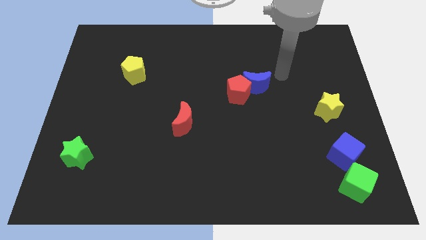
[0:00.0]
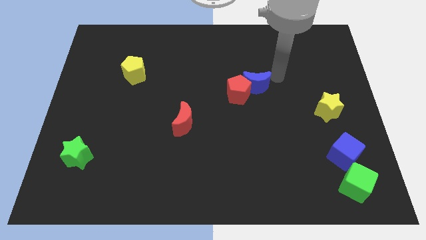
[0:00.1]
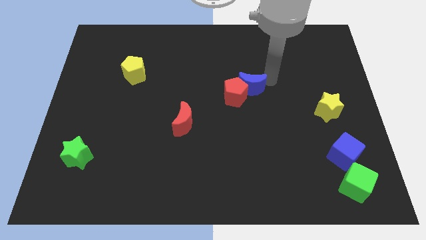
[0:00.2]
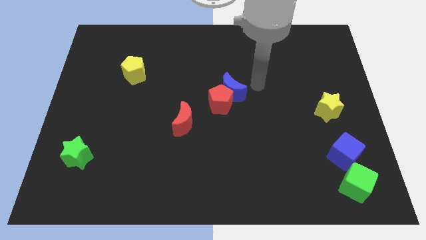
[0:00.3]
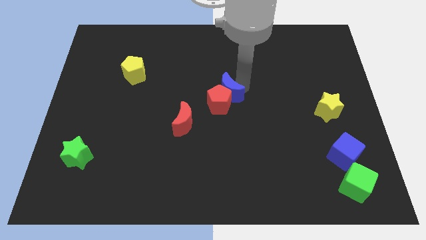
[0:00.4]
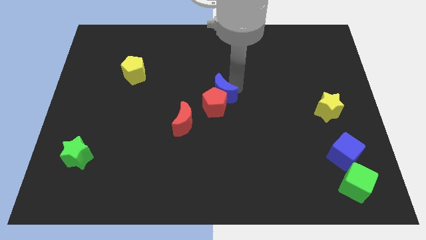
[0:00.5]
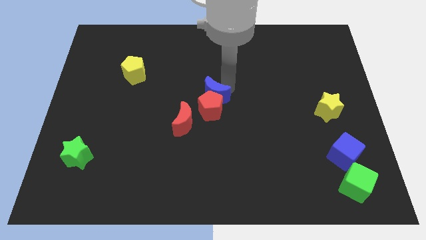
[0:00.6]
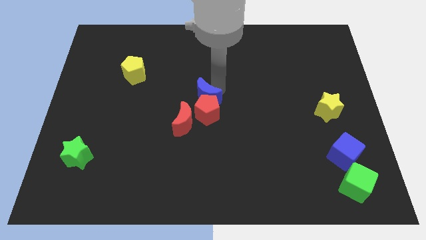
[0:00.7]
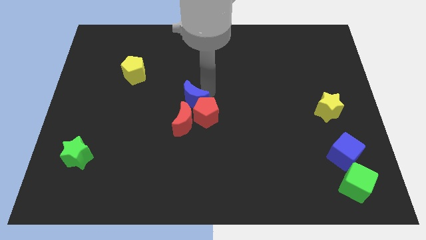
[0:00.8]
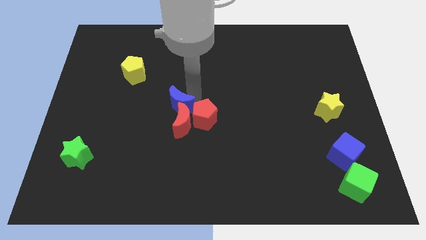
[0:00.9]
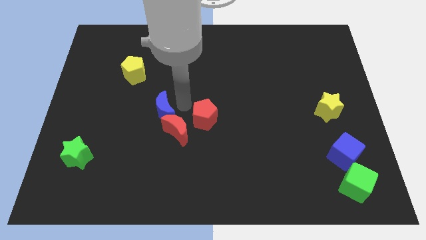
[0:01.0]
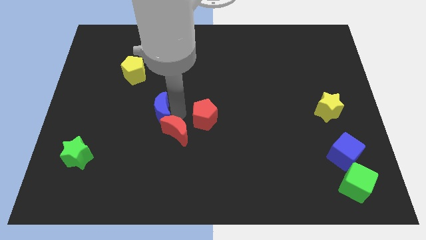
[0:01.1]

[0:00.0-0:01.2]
move the red pentagon away from the blue moon

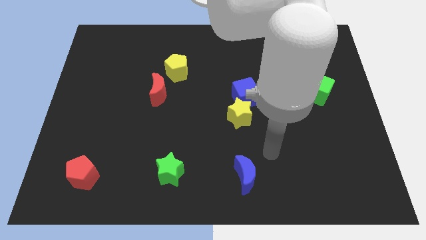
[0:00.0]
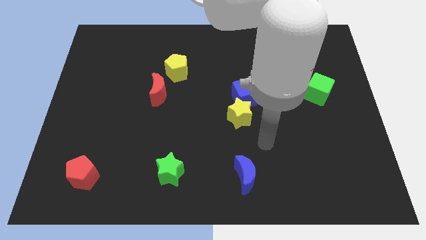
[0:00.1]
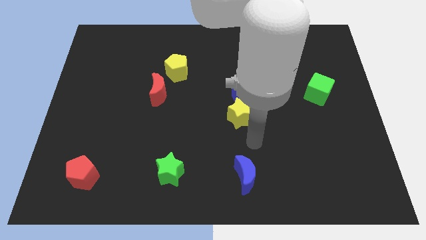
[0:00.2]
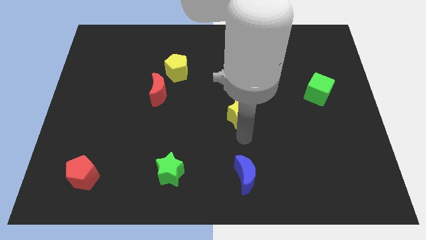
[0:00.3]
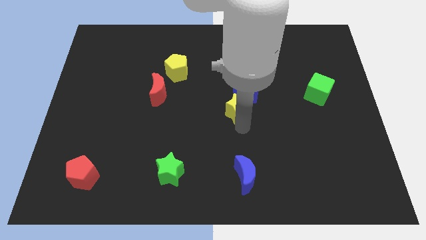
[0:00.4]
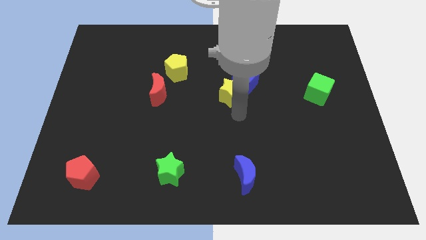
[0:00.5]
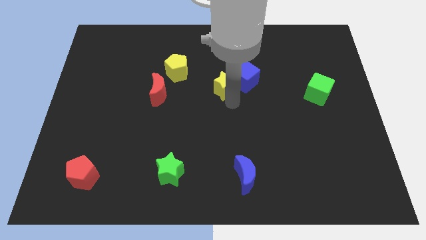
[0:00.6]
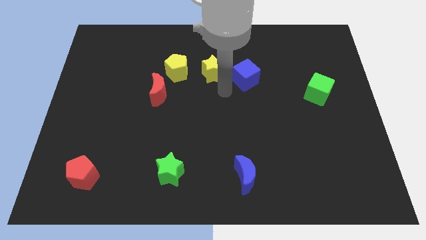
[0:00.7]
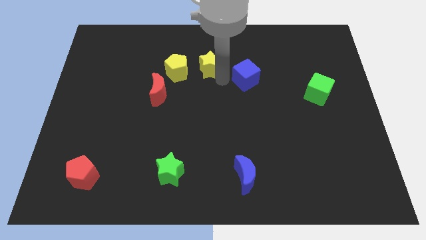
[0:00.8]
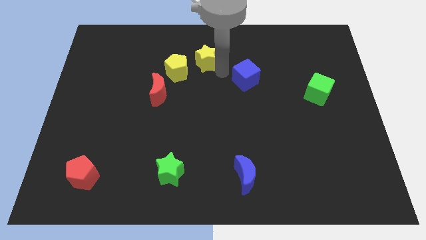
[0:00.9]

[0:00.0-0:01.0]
separate the blue cube from the yellow star

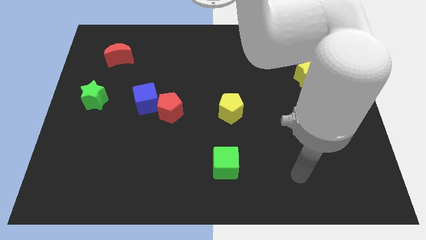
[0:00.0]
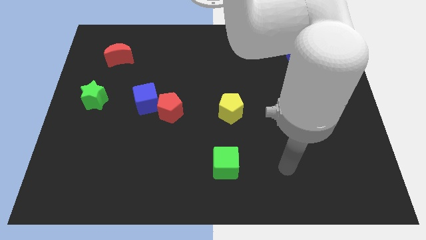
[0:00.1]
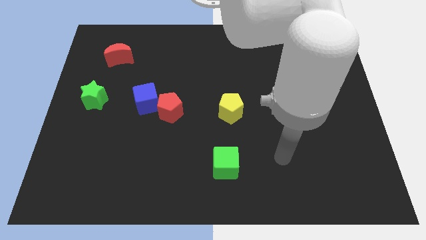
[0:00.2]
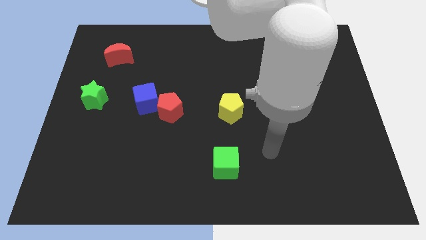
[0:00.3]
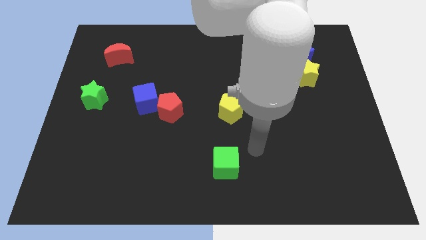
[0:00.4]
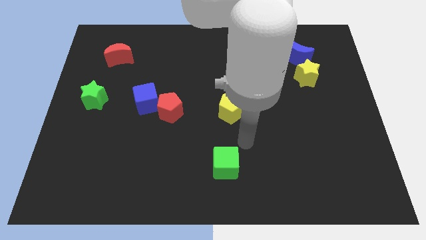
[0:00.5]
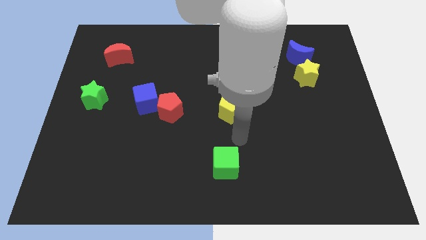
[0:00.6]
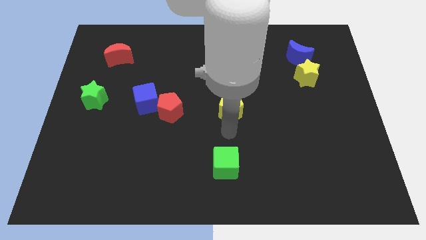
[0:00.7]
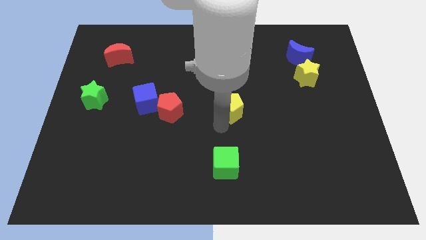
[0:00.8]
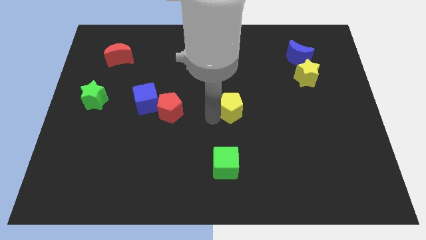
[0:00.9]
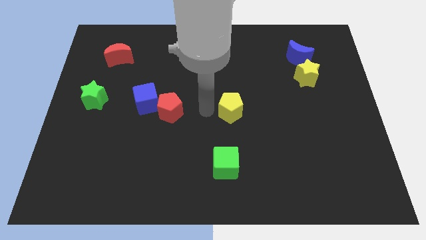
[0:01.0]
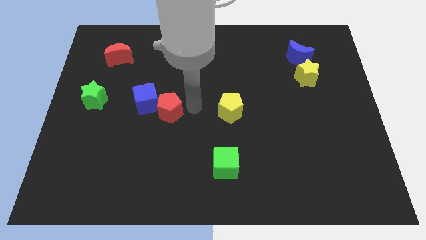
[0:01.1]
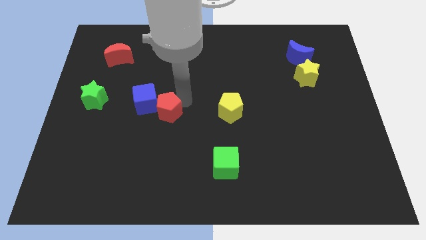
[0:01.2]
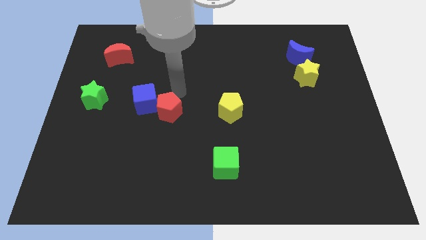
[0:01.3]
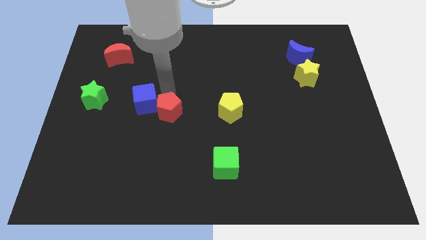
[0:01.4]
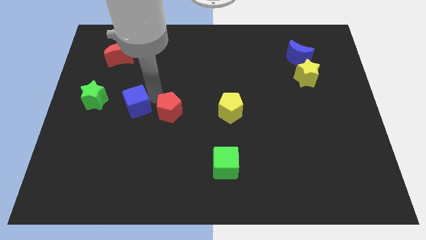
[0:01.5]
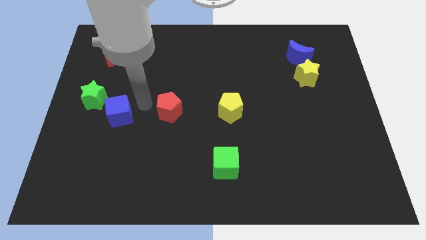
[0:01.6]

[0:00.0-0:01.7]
pull the red pentagon apart from the blue cube

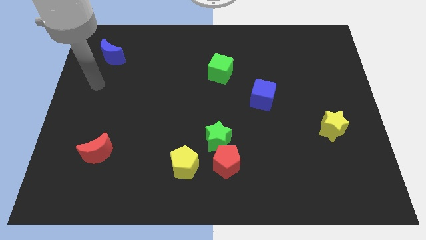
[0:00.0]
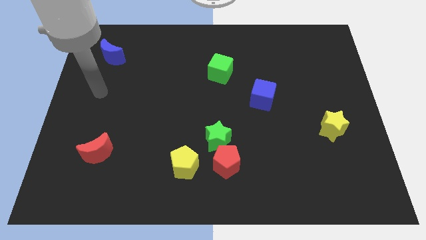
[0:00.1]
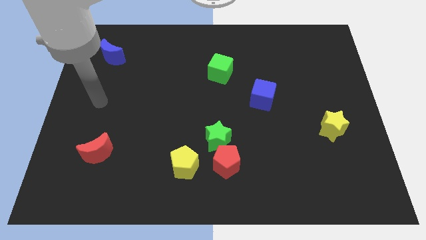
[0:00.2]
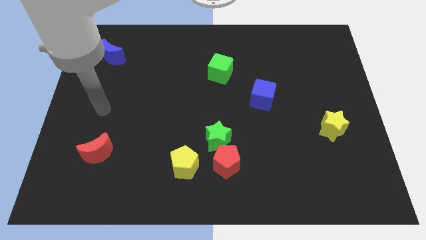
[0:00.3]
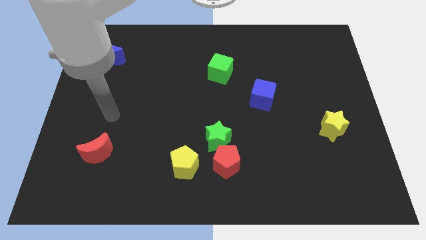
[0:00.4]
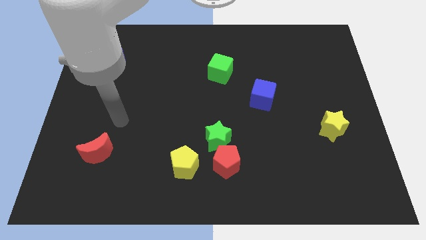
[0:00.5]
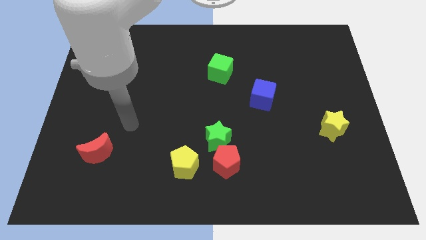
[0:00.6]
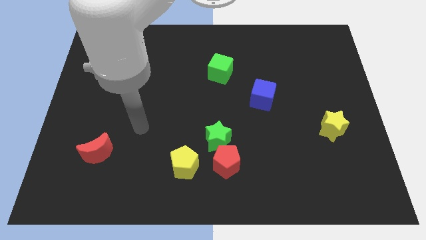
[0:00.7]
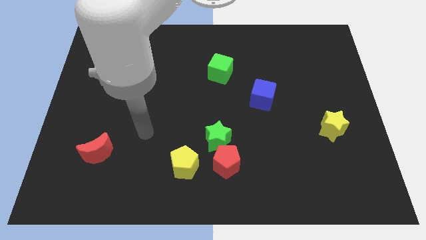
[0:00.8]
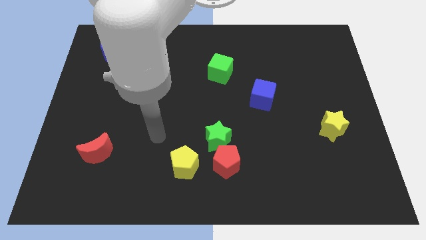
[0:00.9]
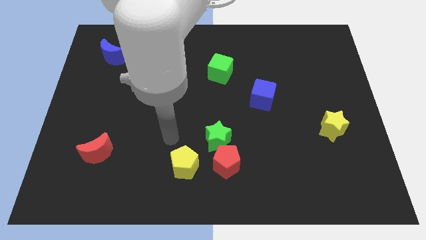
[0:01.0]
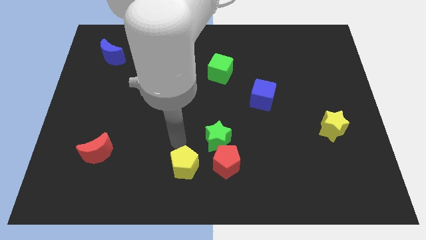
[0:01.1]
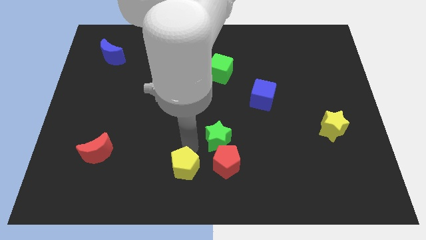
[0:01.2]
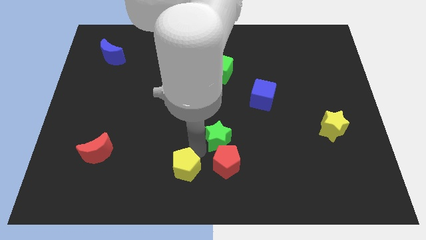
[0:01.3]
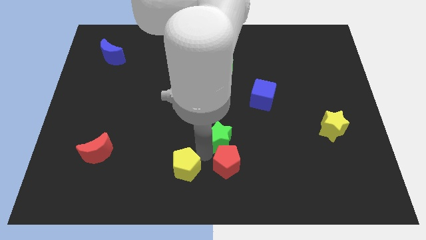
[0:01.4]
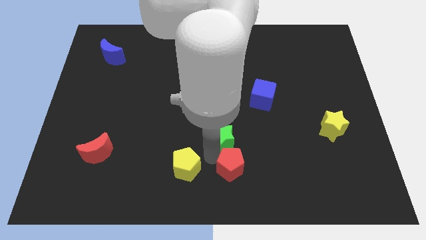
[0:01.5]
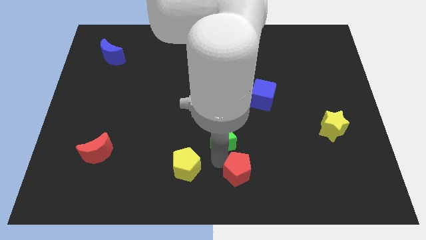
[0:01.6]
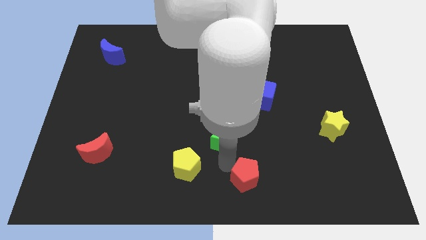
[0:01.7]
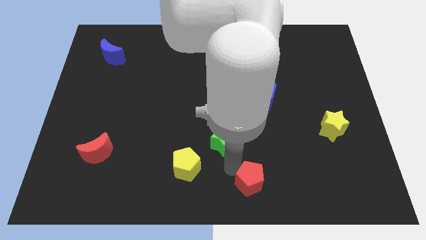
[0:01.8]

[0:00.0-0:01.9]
pull the red pentagon apart from the green star and yellow pentagon

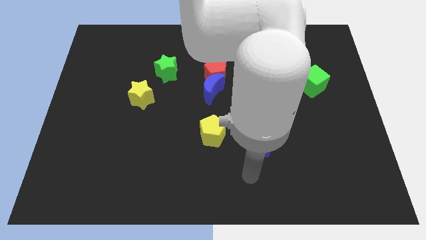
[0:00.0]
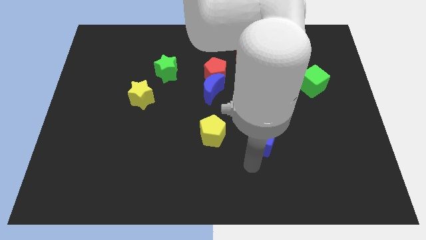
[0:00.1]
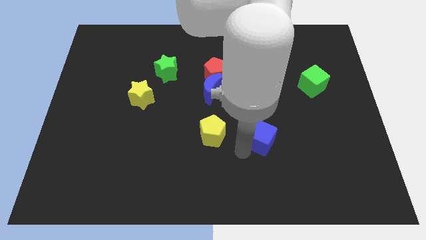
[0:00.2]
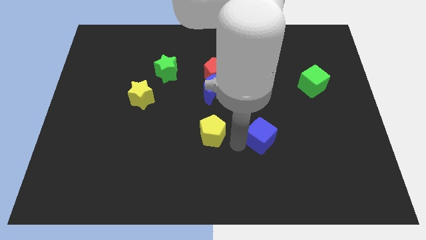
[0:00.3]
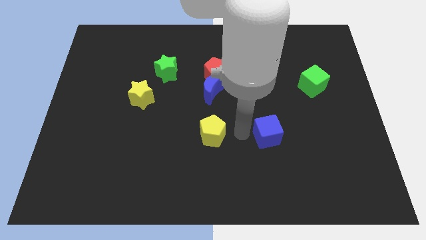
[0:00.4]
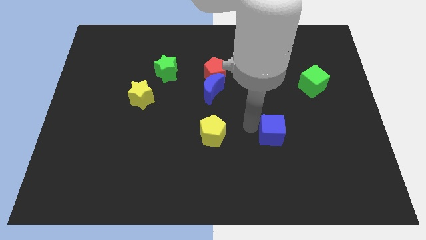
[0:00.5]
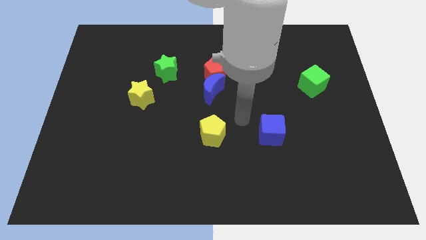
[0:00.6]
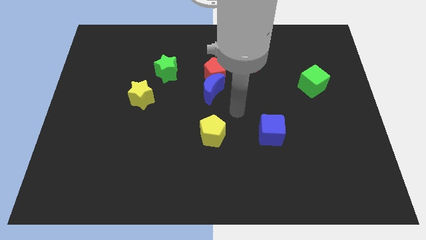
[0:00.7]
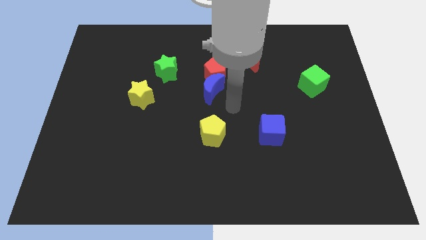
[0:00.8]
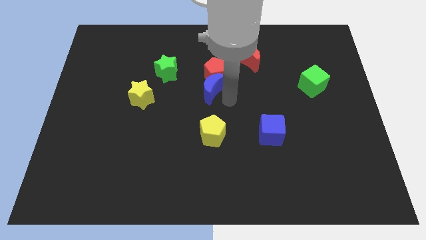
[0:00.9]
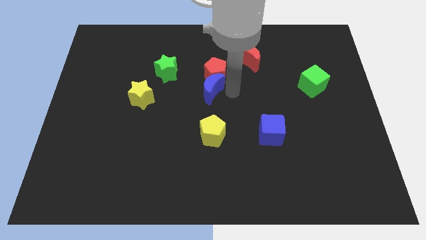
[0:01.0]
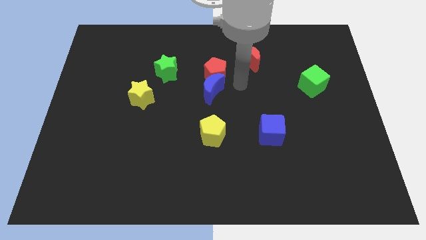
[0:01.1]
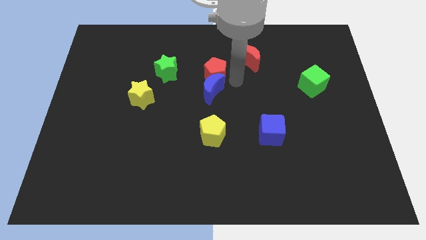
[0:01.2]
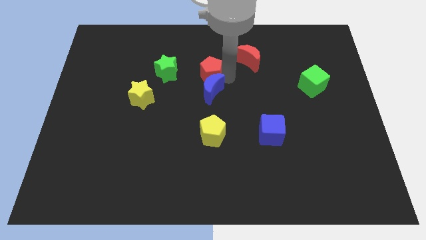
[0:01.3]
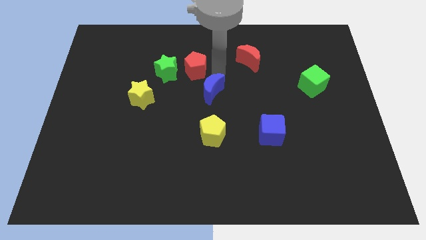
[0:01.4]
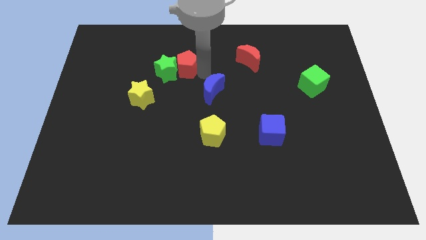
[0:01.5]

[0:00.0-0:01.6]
move the blue moon away from the red pentagon

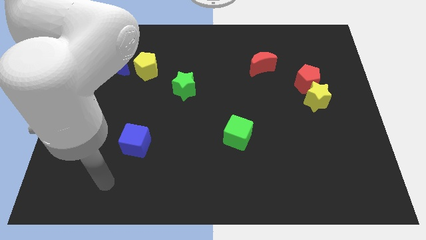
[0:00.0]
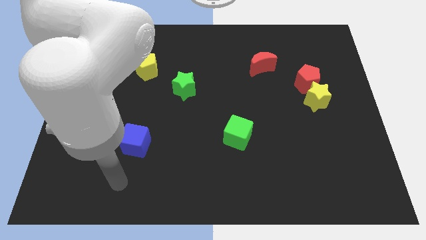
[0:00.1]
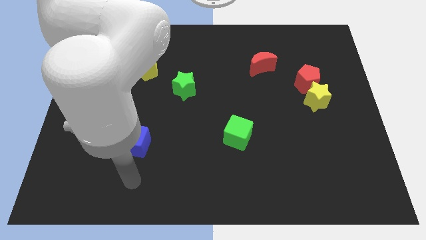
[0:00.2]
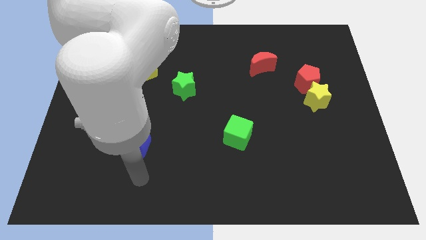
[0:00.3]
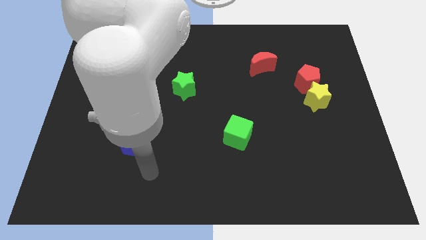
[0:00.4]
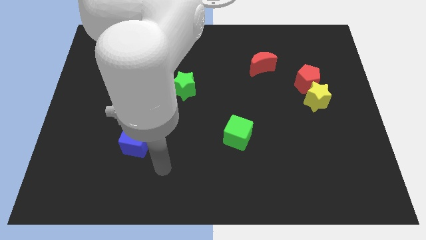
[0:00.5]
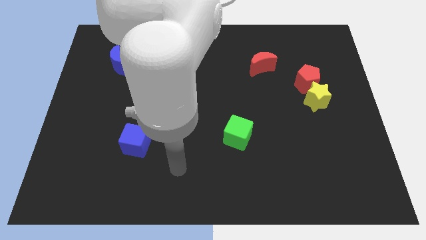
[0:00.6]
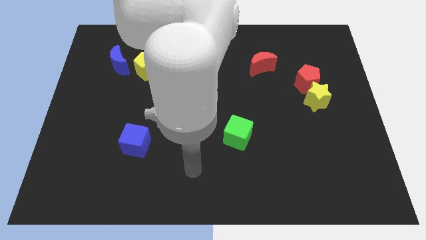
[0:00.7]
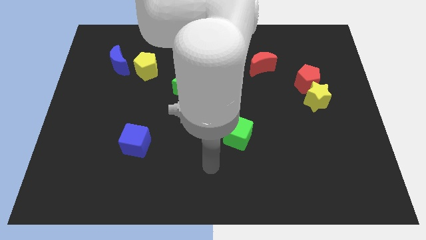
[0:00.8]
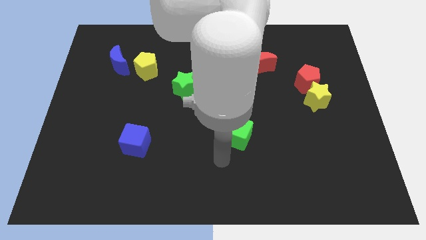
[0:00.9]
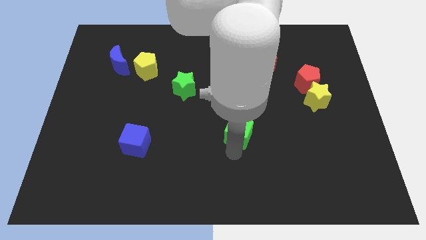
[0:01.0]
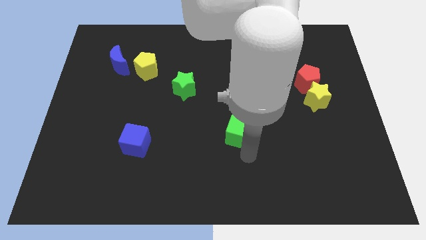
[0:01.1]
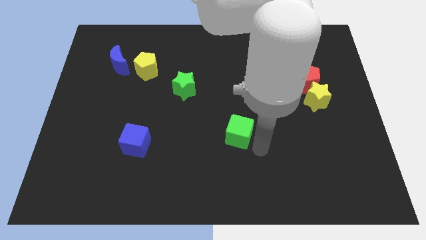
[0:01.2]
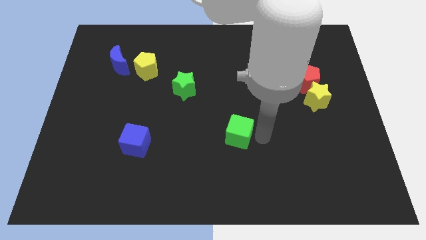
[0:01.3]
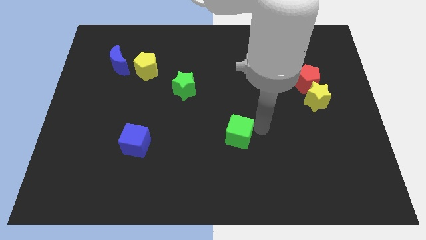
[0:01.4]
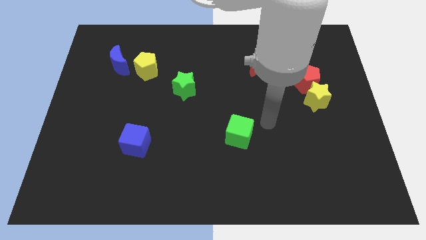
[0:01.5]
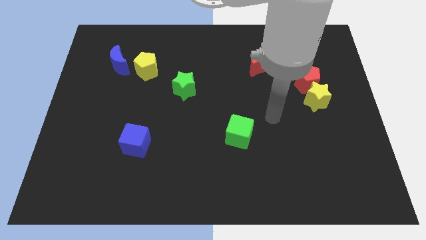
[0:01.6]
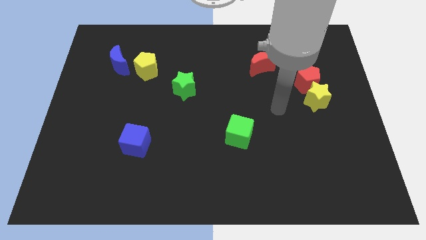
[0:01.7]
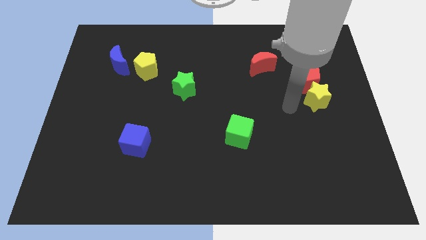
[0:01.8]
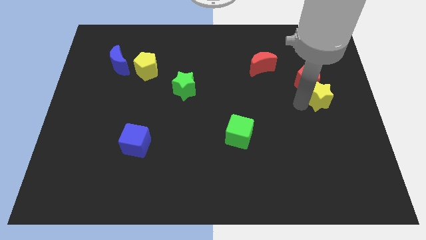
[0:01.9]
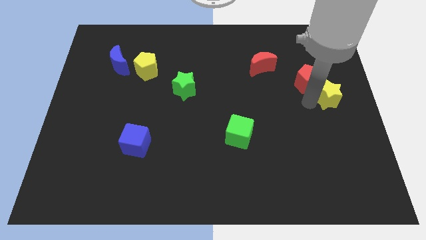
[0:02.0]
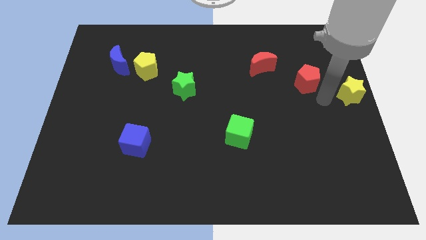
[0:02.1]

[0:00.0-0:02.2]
separate the red pentagon from the yellow star
